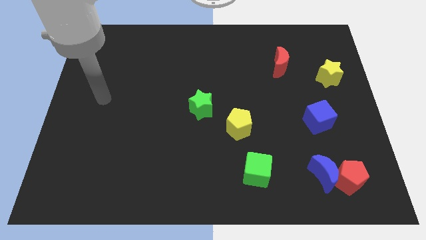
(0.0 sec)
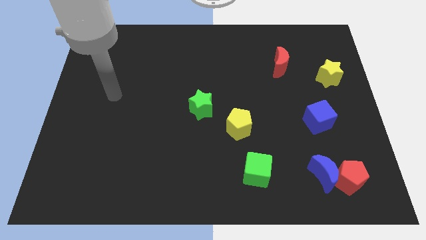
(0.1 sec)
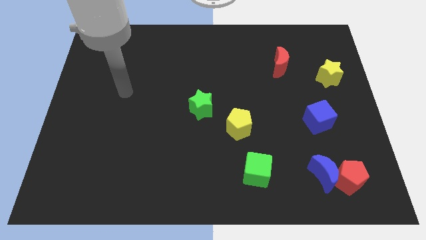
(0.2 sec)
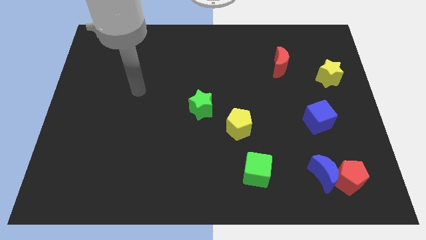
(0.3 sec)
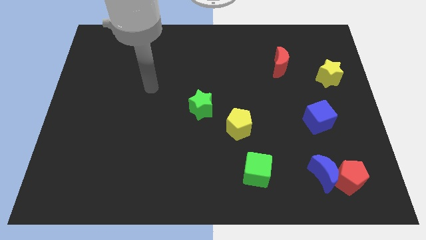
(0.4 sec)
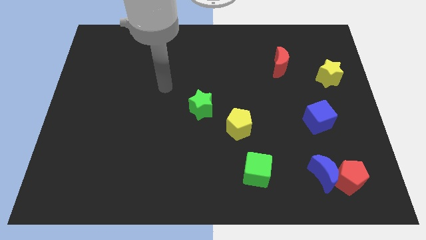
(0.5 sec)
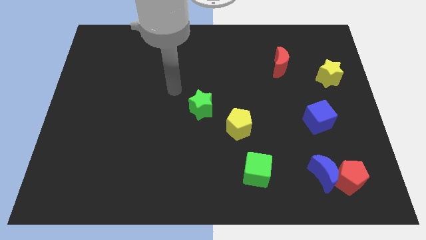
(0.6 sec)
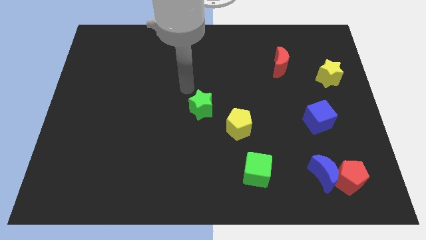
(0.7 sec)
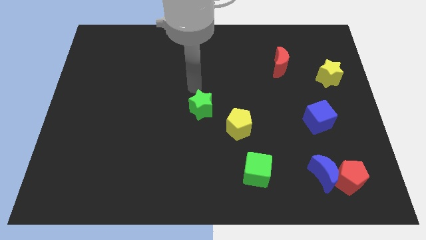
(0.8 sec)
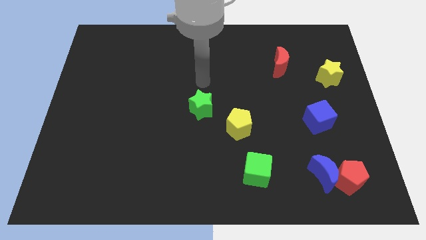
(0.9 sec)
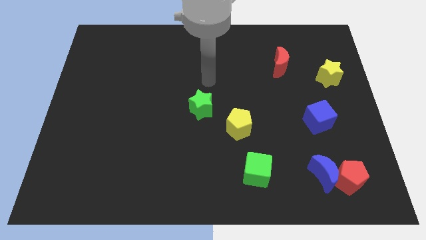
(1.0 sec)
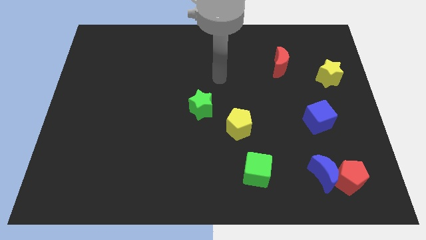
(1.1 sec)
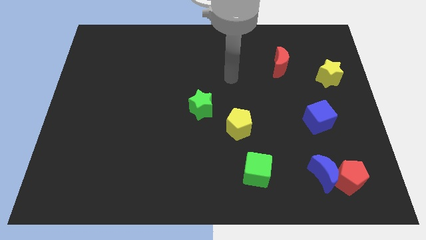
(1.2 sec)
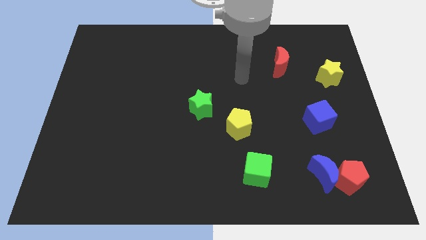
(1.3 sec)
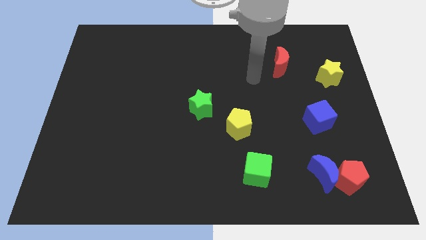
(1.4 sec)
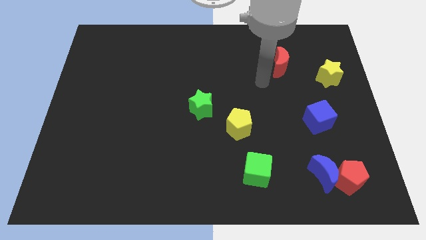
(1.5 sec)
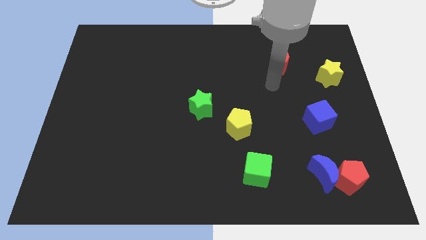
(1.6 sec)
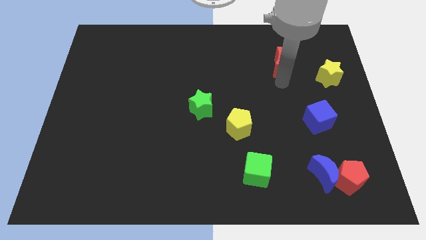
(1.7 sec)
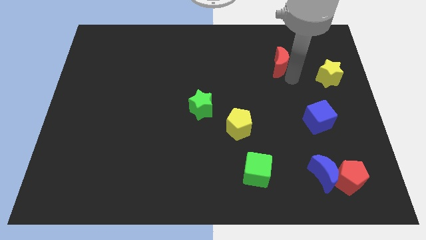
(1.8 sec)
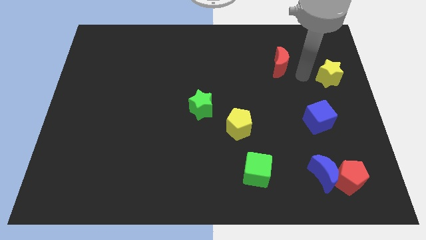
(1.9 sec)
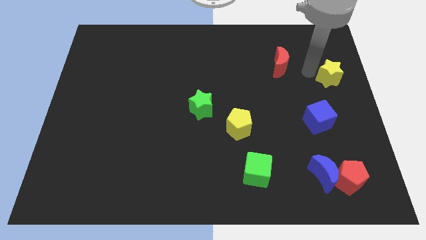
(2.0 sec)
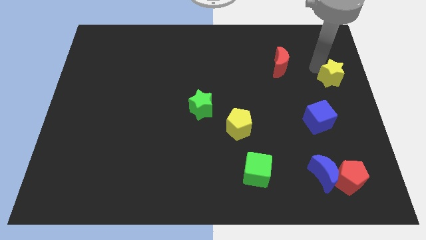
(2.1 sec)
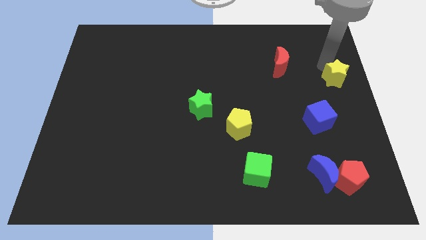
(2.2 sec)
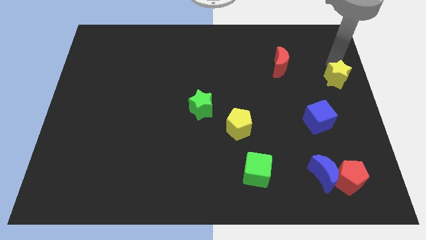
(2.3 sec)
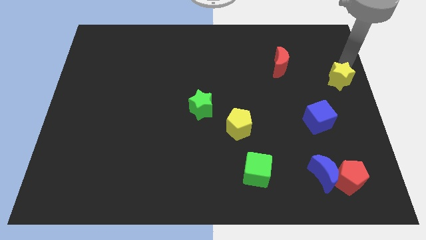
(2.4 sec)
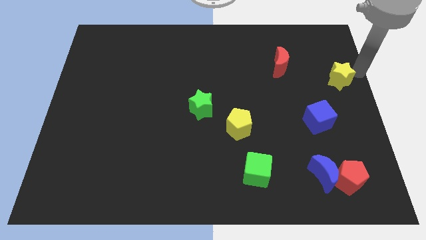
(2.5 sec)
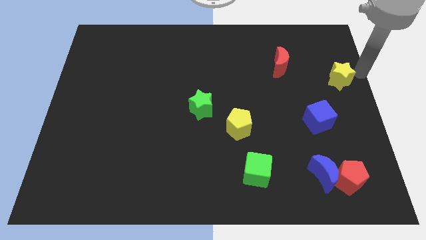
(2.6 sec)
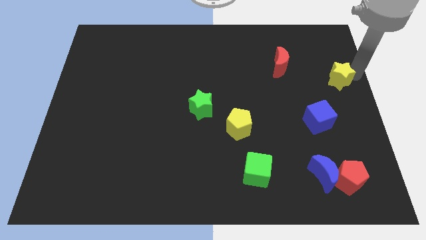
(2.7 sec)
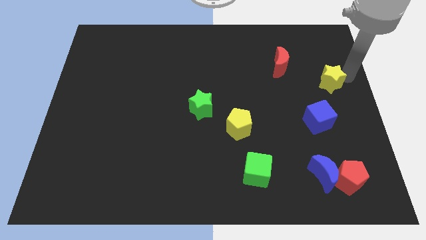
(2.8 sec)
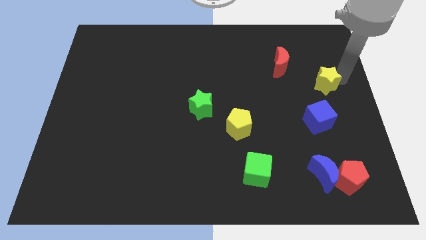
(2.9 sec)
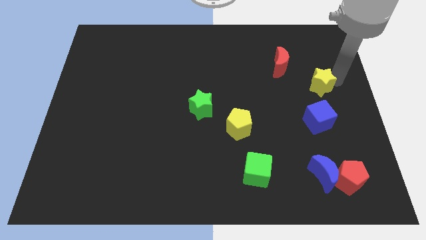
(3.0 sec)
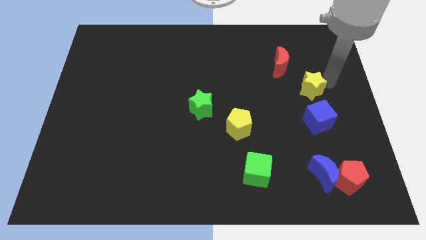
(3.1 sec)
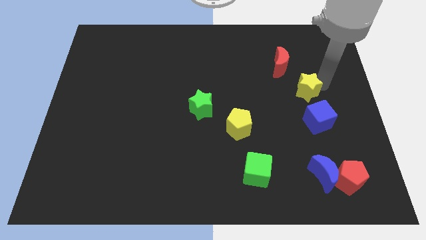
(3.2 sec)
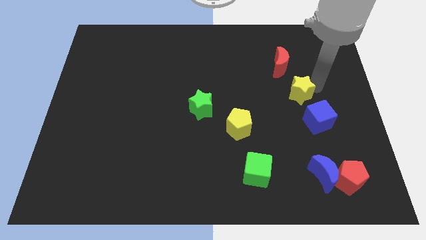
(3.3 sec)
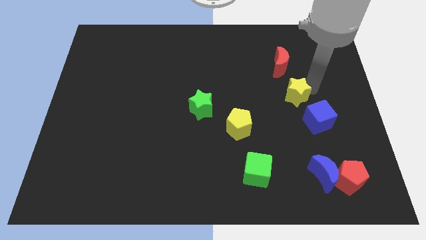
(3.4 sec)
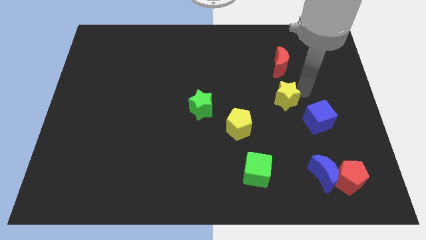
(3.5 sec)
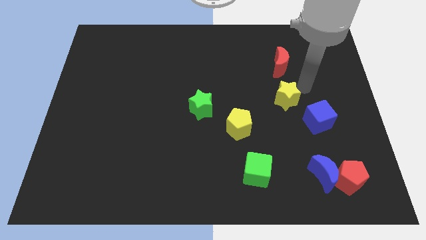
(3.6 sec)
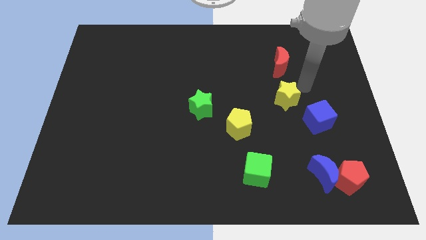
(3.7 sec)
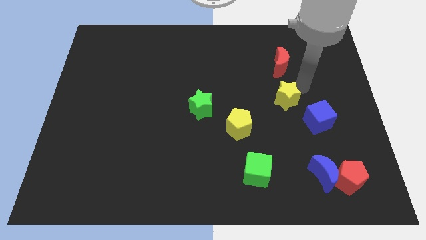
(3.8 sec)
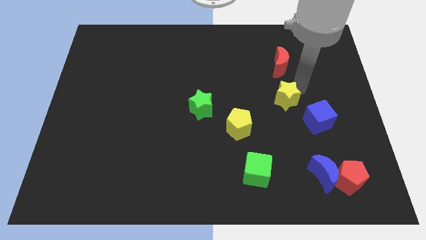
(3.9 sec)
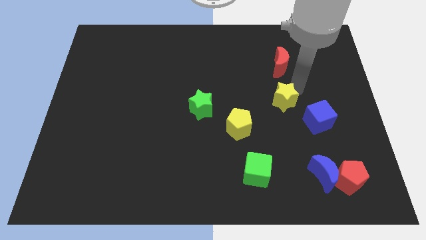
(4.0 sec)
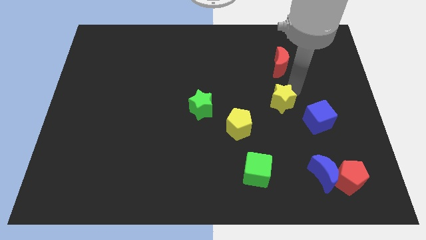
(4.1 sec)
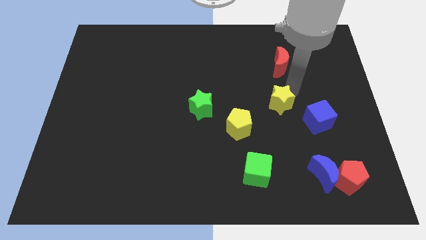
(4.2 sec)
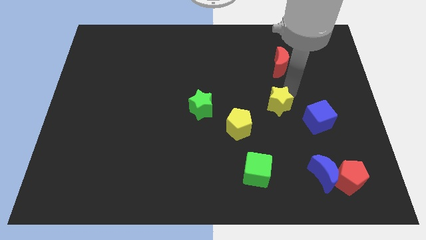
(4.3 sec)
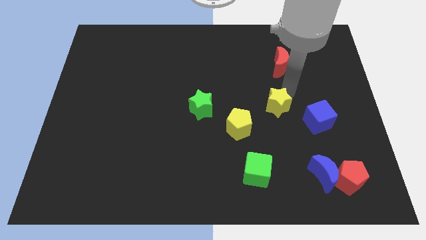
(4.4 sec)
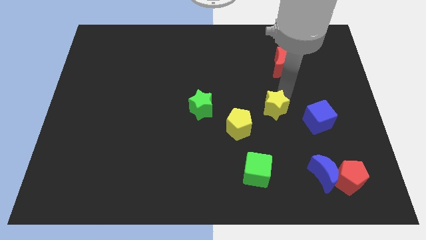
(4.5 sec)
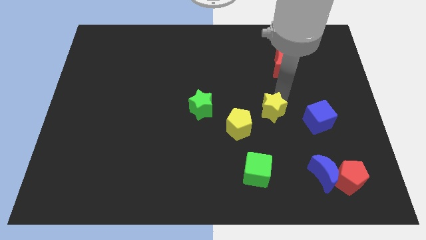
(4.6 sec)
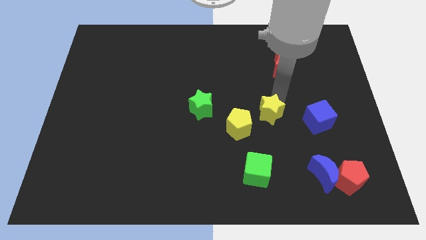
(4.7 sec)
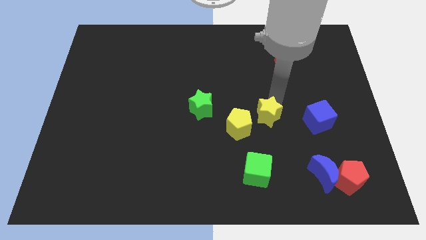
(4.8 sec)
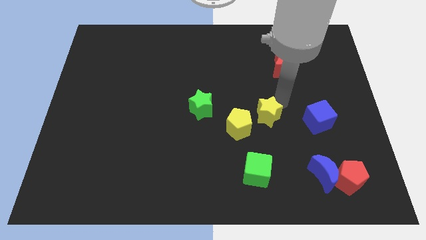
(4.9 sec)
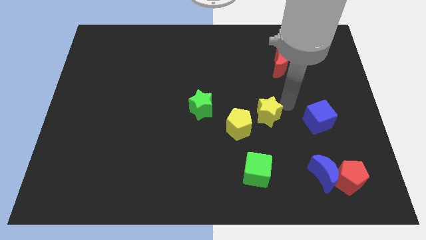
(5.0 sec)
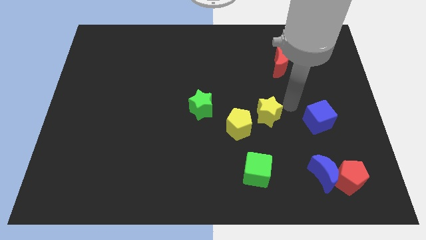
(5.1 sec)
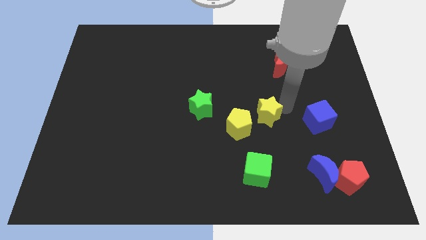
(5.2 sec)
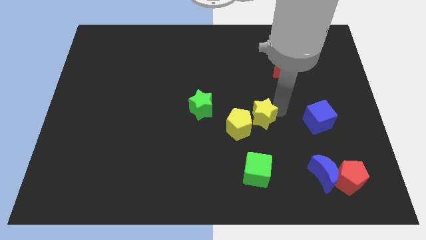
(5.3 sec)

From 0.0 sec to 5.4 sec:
put the yellow star towards the yellow pentagon

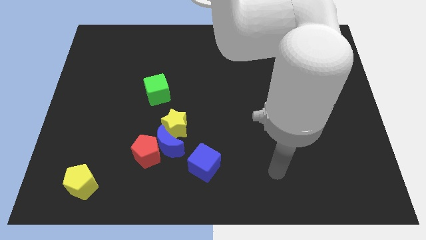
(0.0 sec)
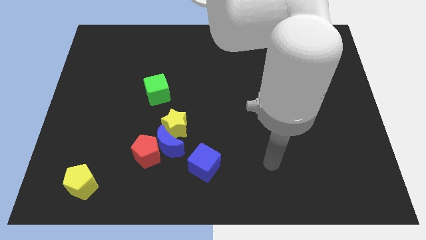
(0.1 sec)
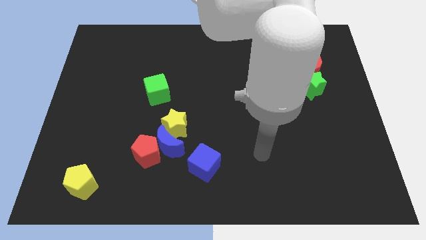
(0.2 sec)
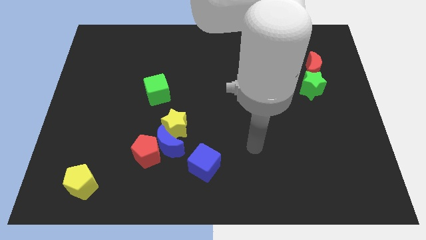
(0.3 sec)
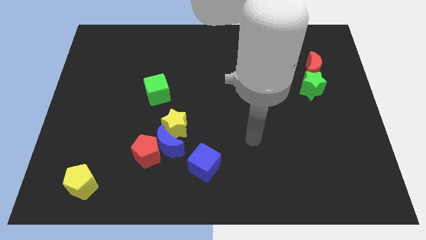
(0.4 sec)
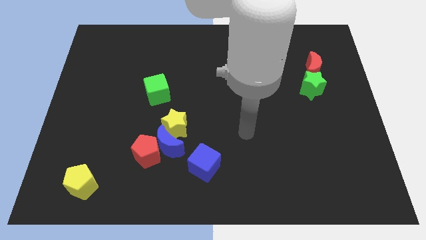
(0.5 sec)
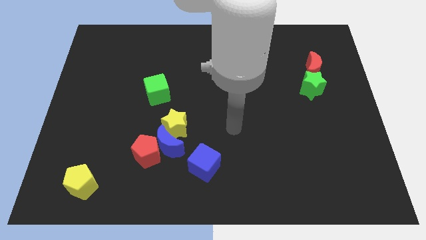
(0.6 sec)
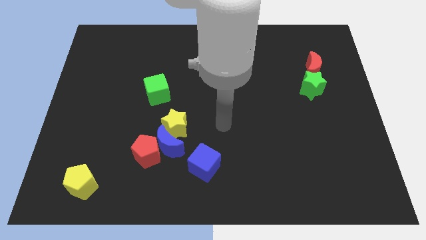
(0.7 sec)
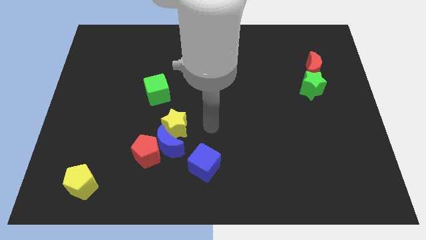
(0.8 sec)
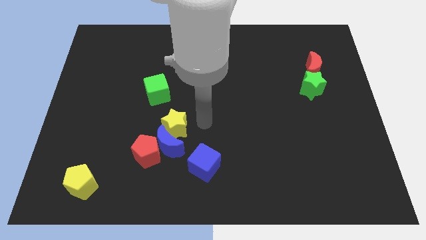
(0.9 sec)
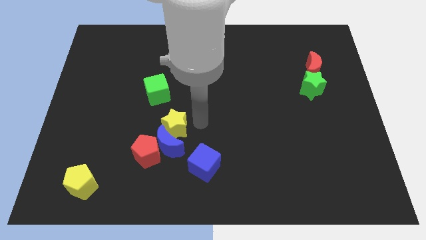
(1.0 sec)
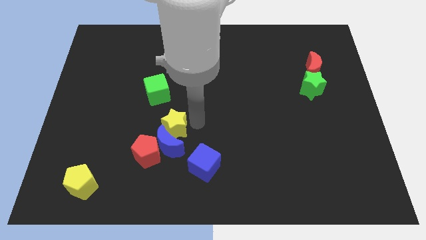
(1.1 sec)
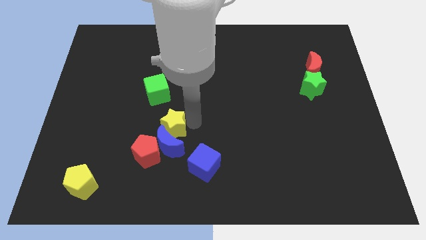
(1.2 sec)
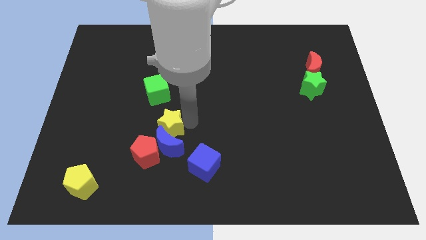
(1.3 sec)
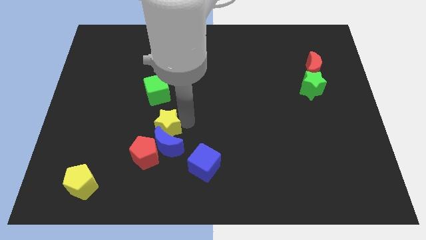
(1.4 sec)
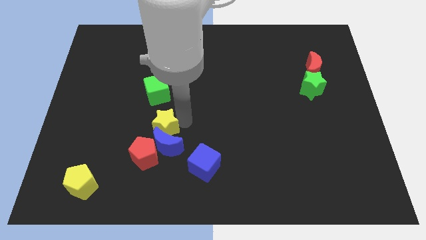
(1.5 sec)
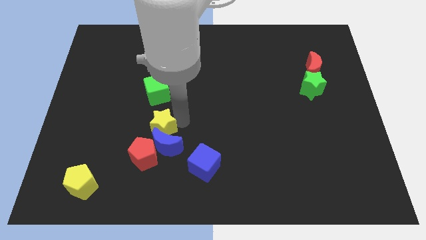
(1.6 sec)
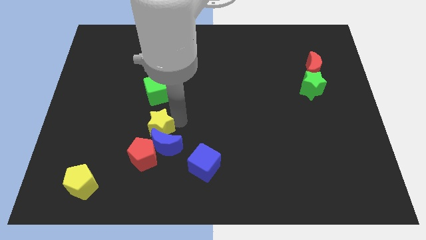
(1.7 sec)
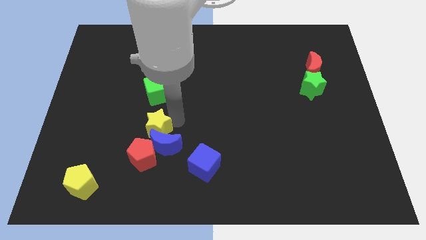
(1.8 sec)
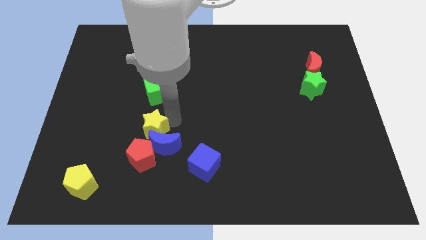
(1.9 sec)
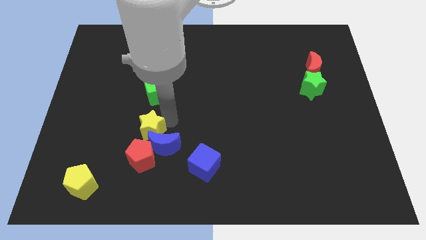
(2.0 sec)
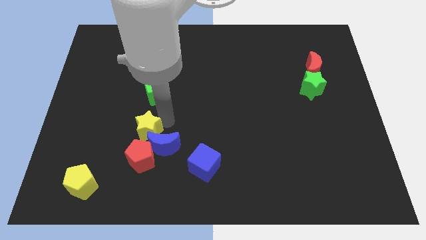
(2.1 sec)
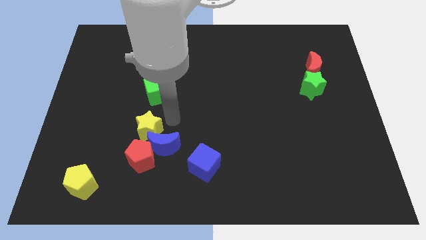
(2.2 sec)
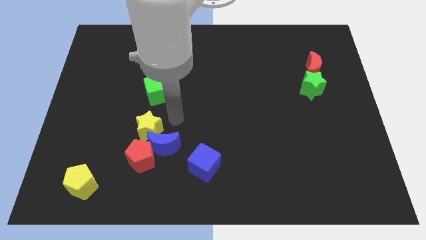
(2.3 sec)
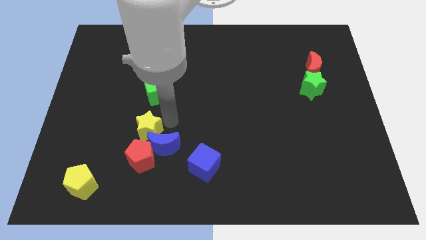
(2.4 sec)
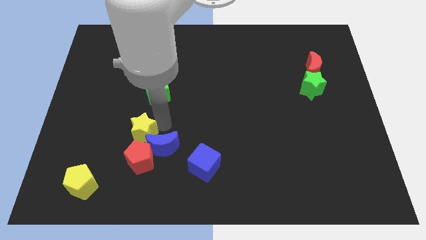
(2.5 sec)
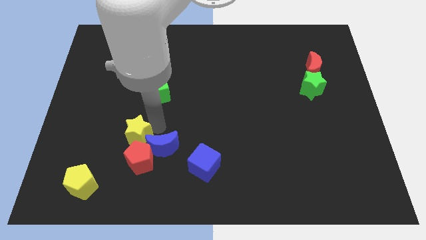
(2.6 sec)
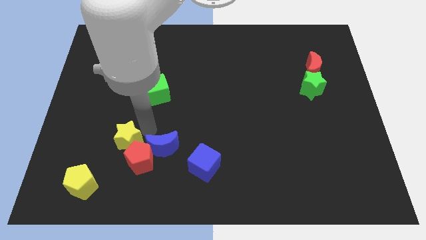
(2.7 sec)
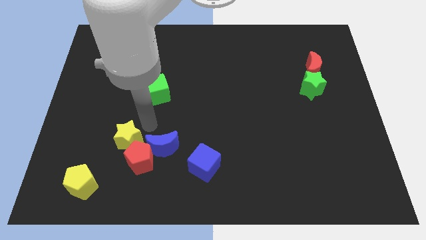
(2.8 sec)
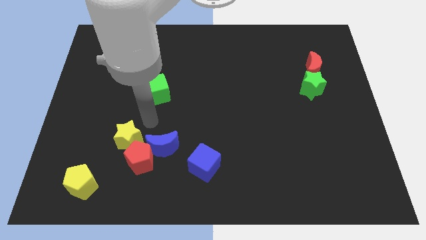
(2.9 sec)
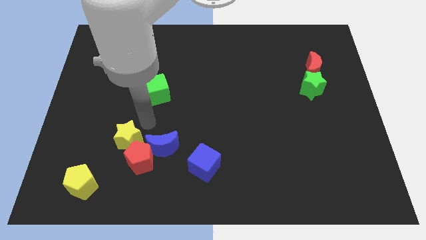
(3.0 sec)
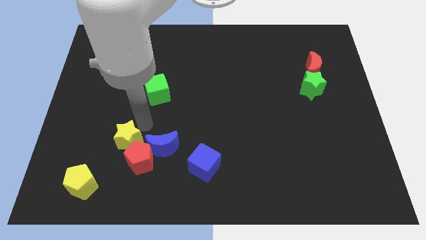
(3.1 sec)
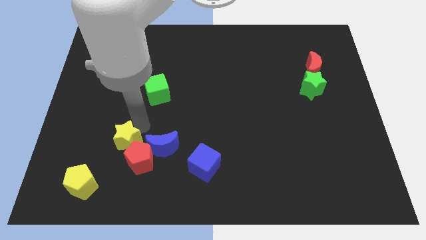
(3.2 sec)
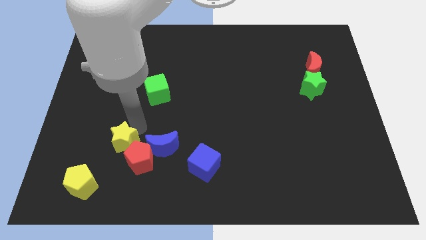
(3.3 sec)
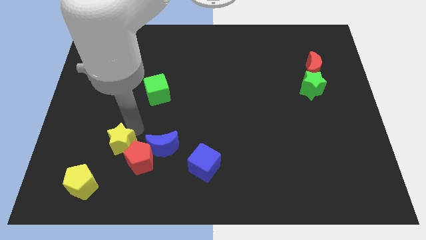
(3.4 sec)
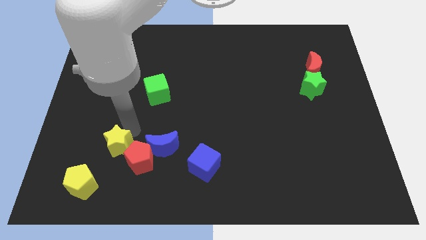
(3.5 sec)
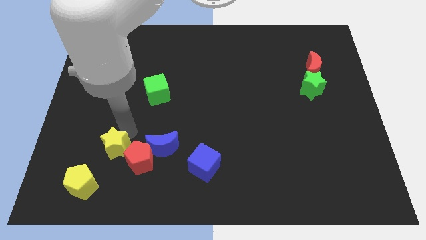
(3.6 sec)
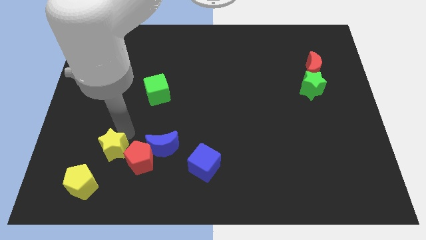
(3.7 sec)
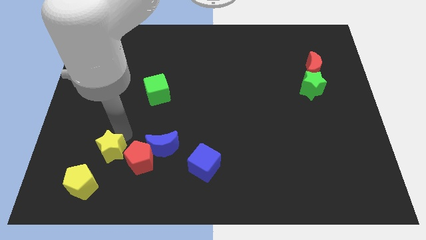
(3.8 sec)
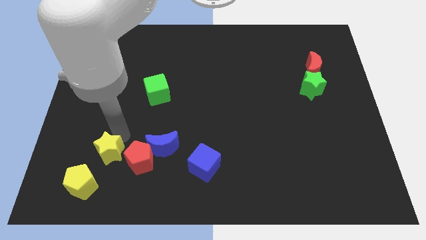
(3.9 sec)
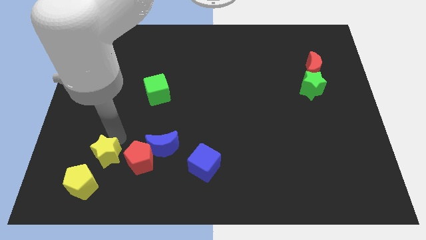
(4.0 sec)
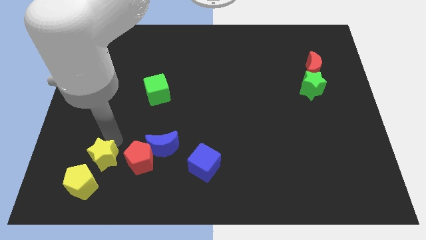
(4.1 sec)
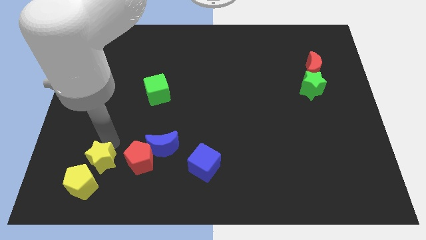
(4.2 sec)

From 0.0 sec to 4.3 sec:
slide the yellow star next to the yellow pentagon
